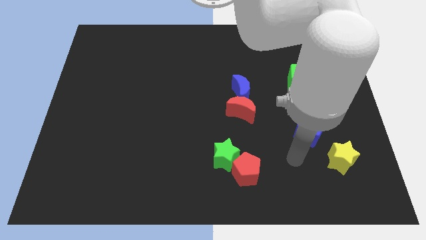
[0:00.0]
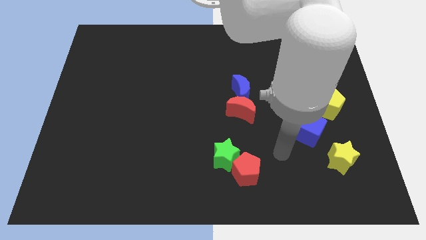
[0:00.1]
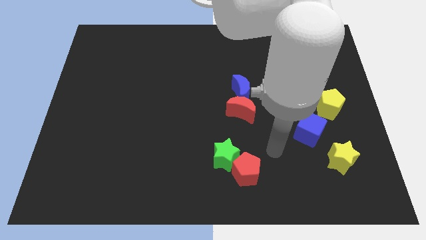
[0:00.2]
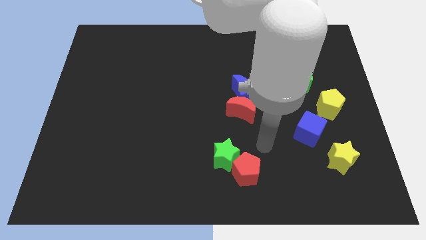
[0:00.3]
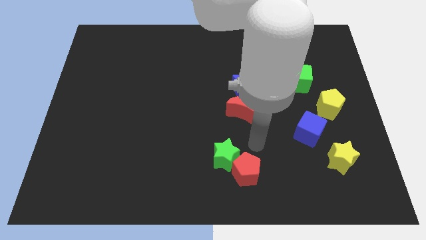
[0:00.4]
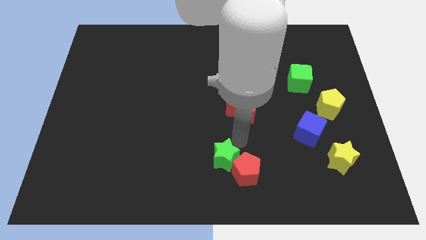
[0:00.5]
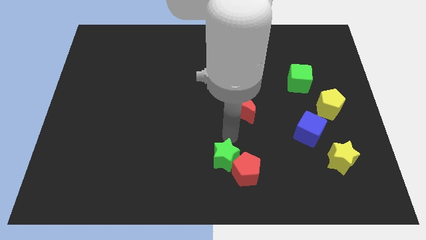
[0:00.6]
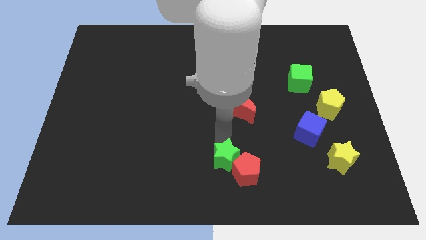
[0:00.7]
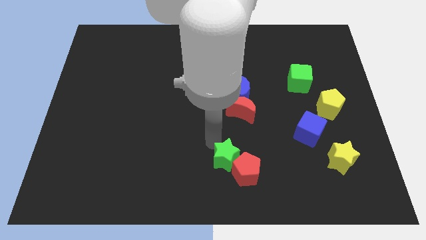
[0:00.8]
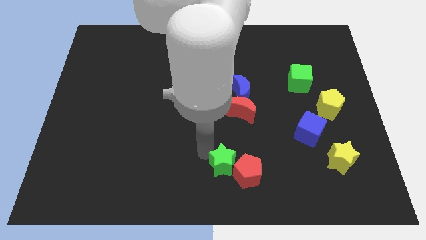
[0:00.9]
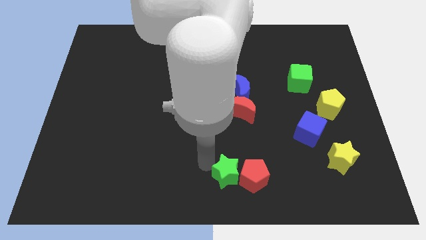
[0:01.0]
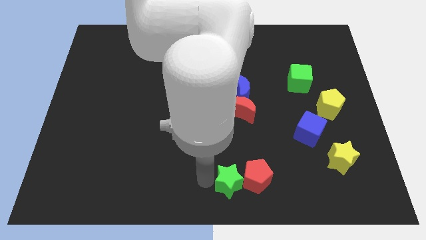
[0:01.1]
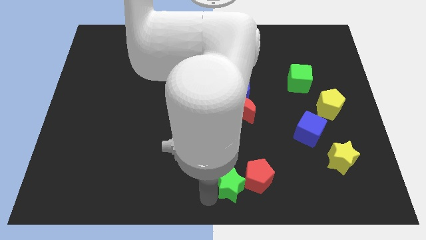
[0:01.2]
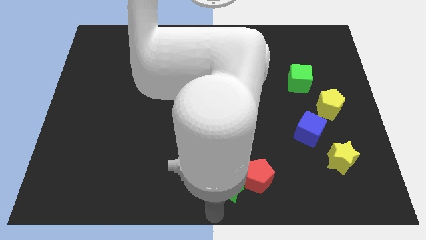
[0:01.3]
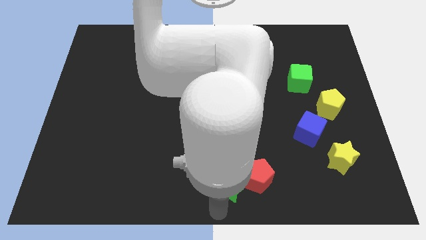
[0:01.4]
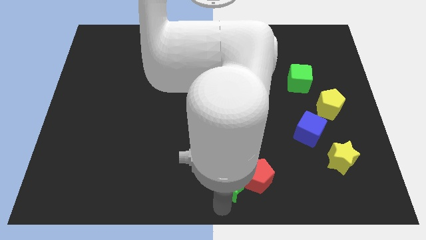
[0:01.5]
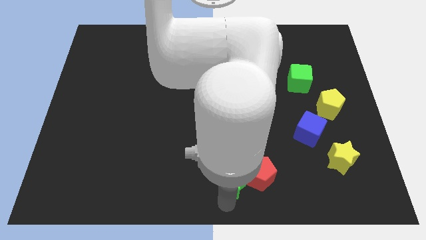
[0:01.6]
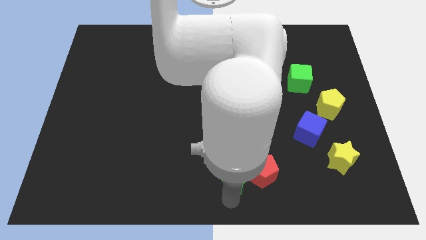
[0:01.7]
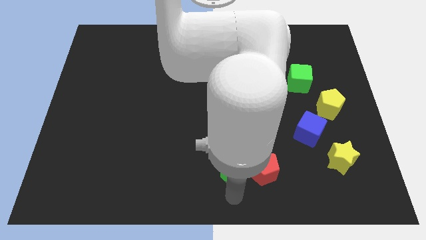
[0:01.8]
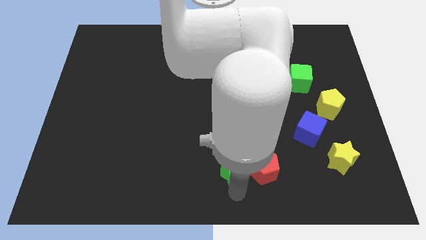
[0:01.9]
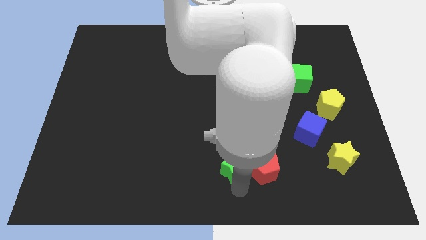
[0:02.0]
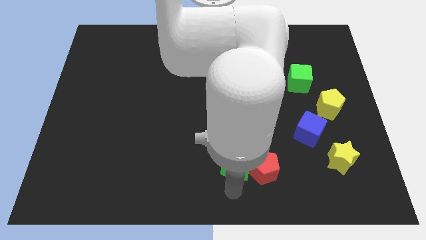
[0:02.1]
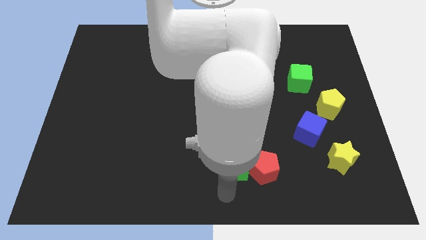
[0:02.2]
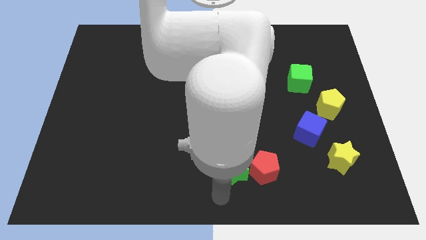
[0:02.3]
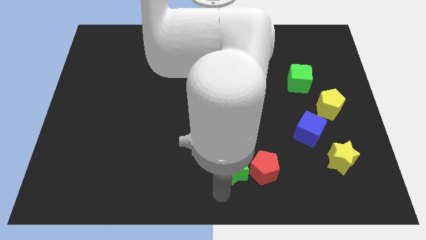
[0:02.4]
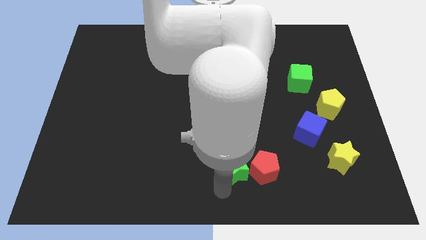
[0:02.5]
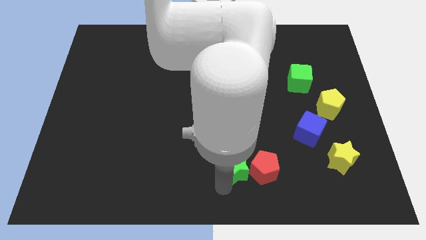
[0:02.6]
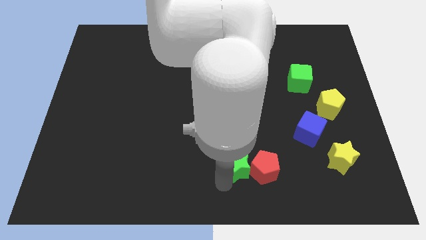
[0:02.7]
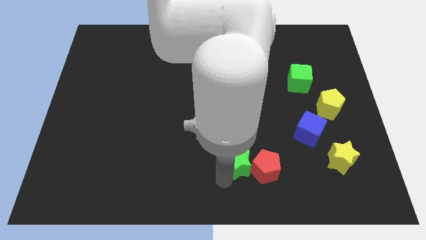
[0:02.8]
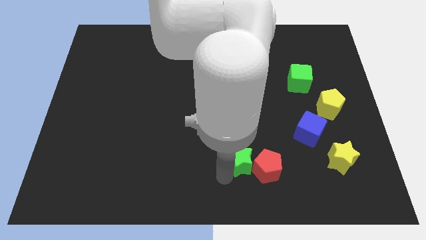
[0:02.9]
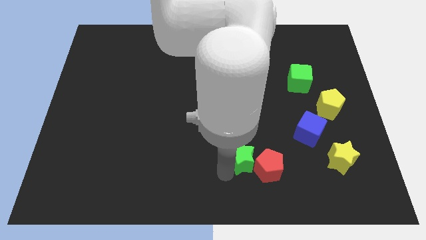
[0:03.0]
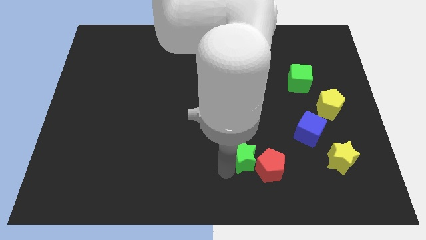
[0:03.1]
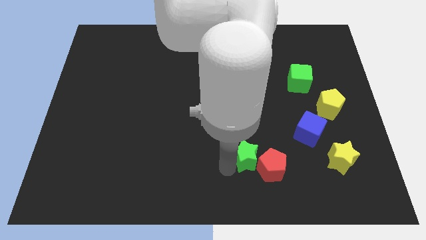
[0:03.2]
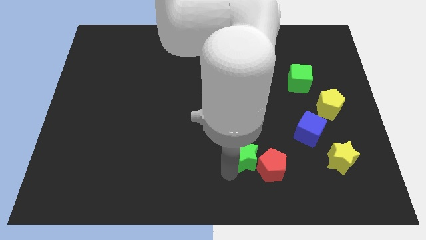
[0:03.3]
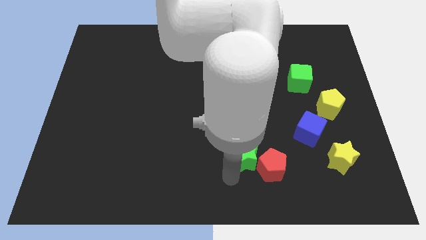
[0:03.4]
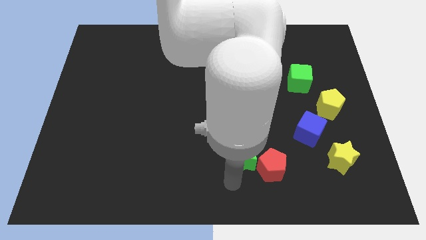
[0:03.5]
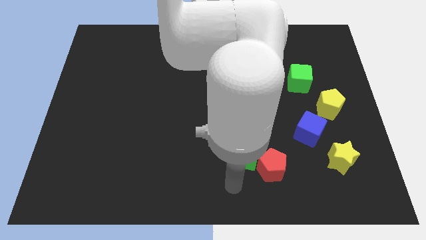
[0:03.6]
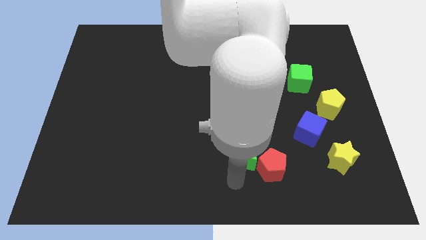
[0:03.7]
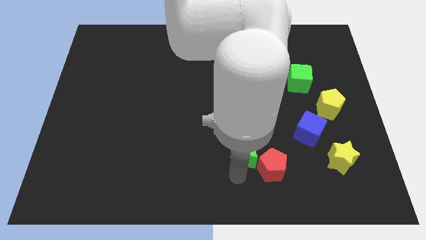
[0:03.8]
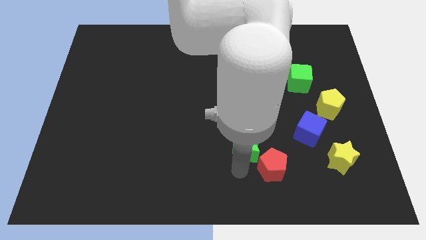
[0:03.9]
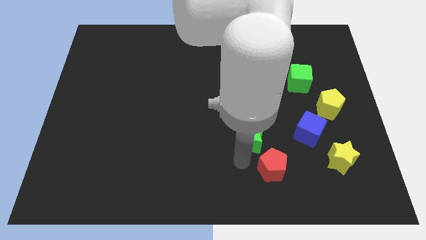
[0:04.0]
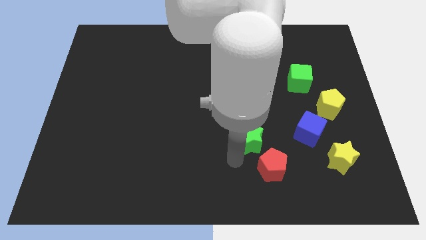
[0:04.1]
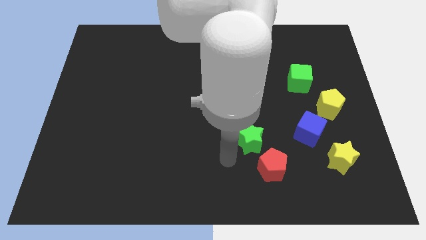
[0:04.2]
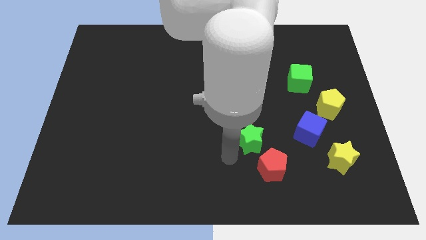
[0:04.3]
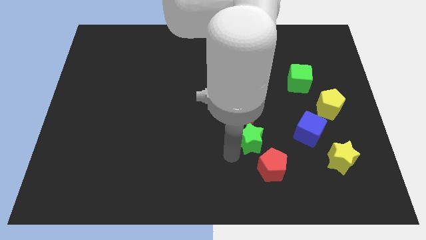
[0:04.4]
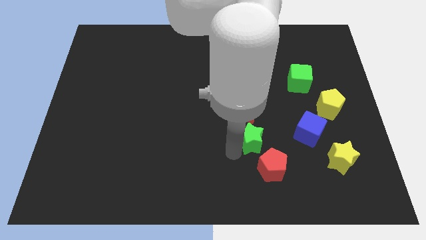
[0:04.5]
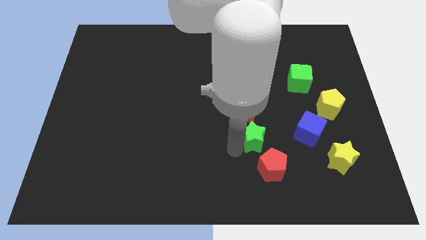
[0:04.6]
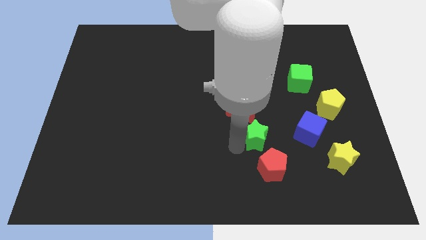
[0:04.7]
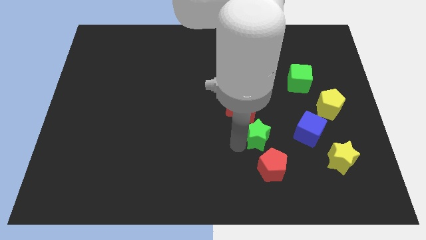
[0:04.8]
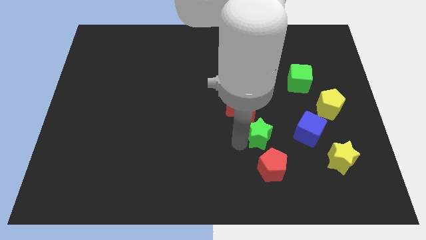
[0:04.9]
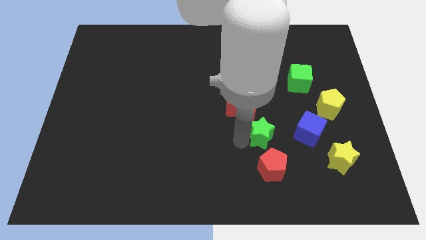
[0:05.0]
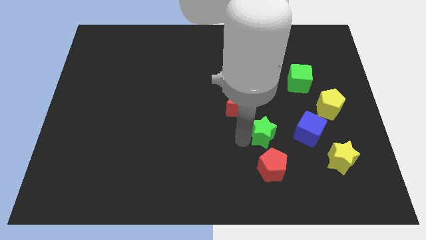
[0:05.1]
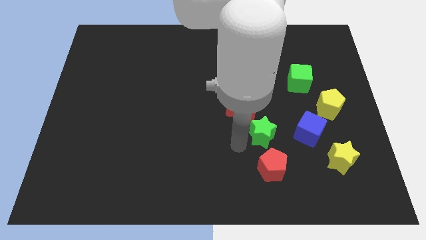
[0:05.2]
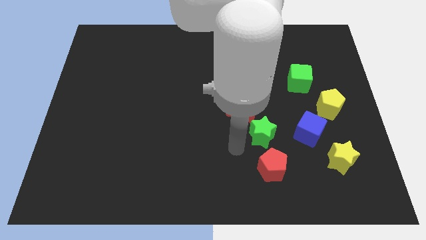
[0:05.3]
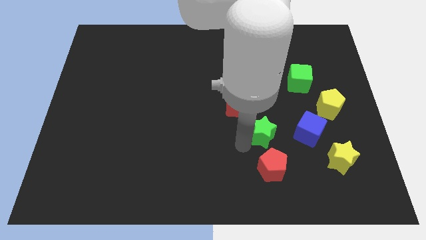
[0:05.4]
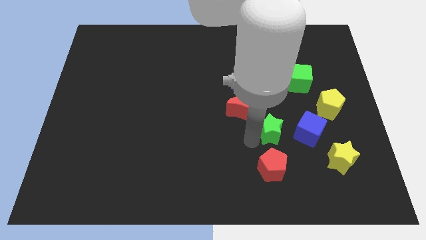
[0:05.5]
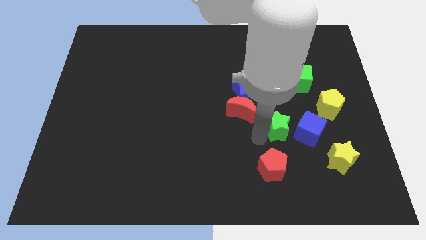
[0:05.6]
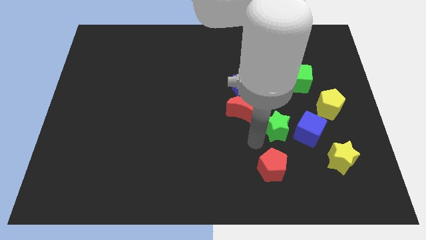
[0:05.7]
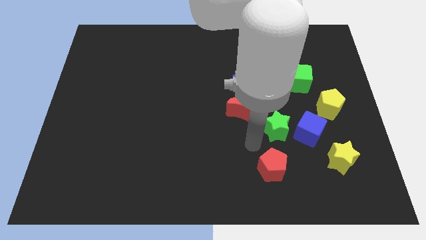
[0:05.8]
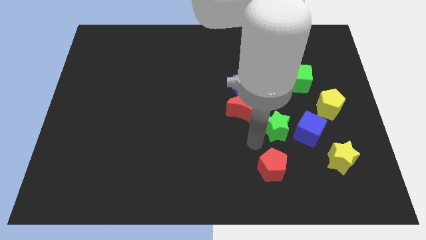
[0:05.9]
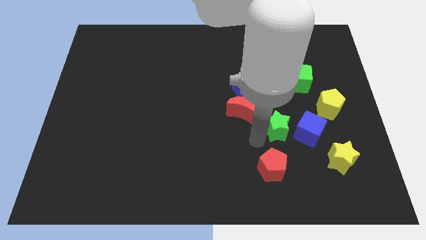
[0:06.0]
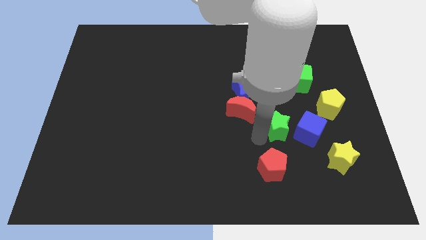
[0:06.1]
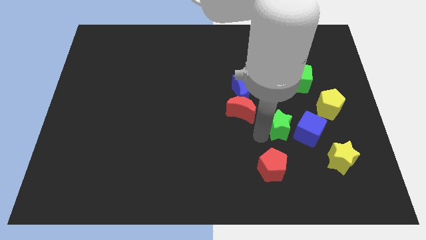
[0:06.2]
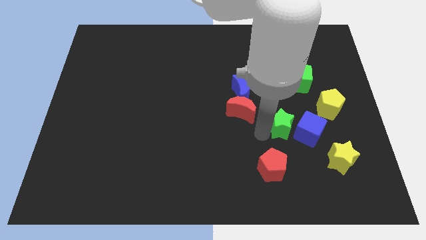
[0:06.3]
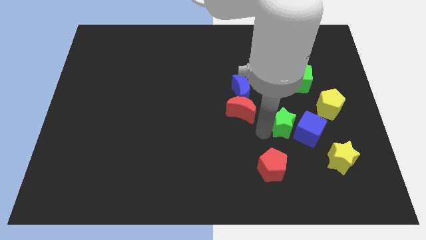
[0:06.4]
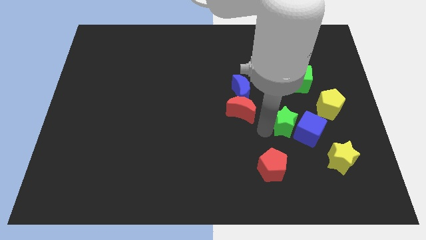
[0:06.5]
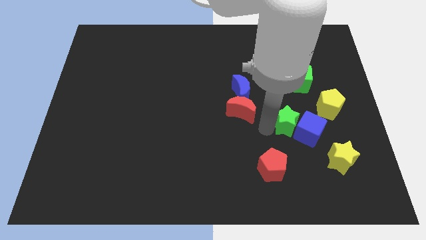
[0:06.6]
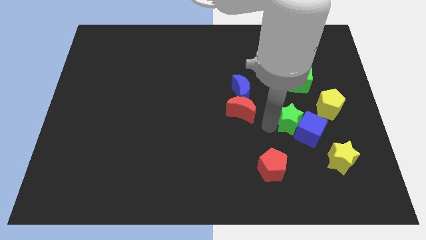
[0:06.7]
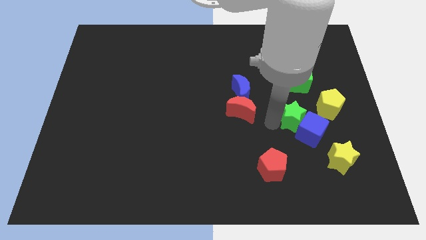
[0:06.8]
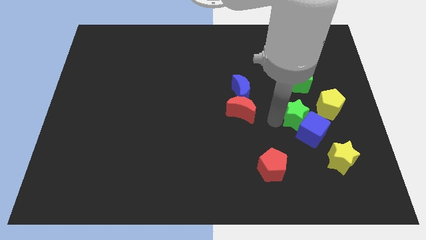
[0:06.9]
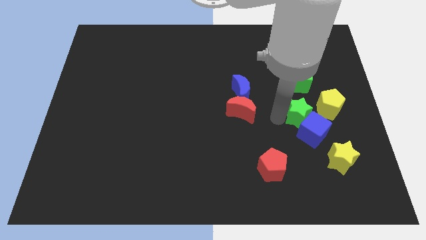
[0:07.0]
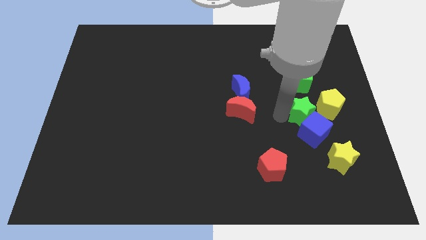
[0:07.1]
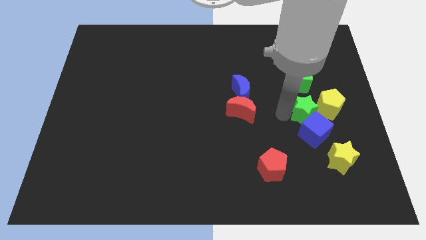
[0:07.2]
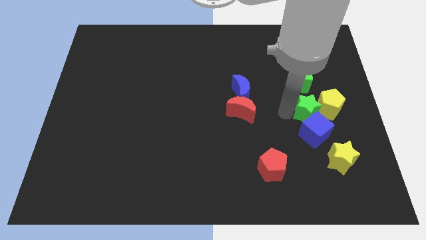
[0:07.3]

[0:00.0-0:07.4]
move the green star next to the yellow pentagon
